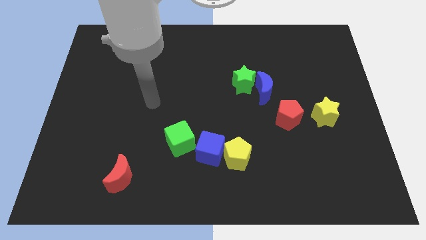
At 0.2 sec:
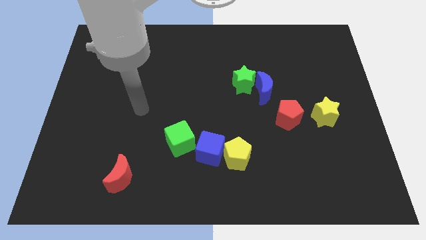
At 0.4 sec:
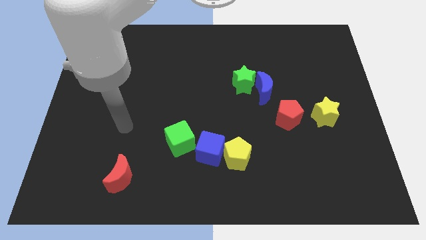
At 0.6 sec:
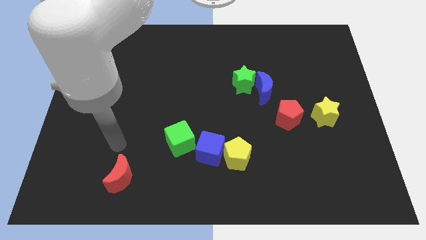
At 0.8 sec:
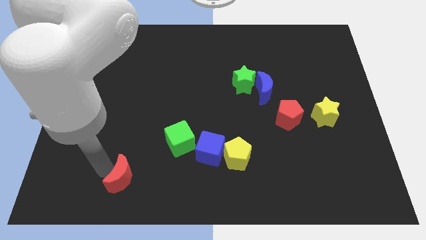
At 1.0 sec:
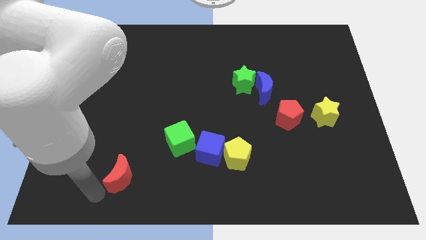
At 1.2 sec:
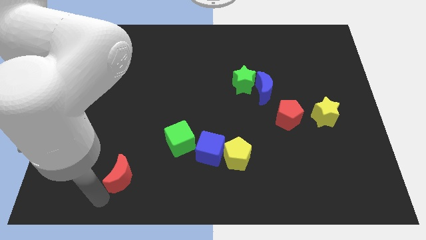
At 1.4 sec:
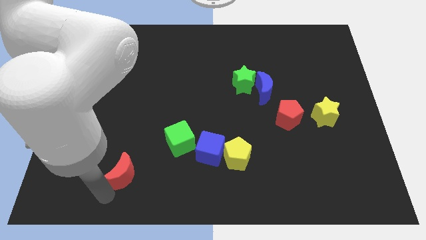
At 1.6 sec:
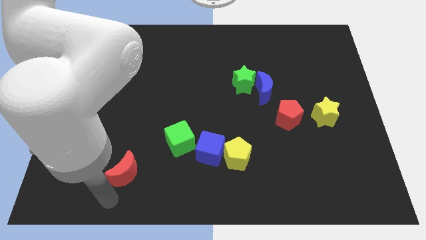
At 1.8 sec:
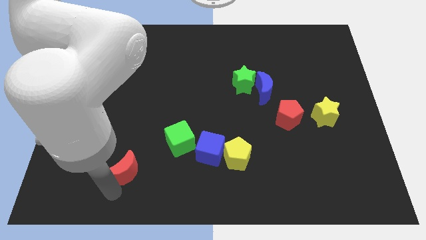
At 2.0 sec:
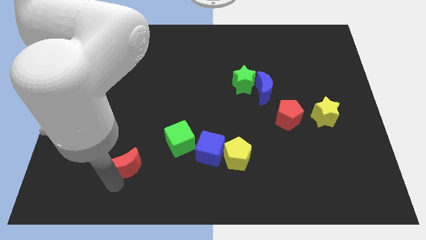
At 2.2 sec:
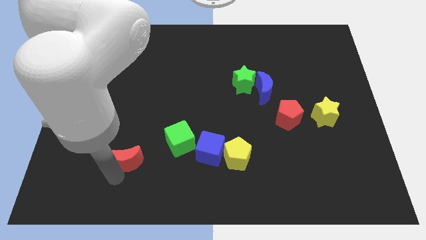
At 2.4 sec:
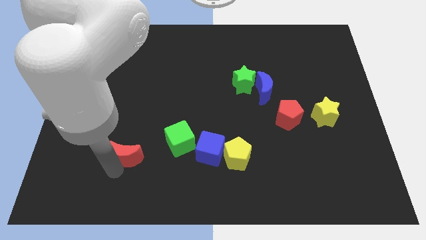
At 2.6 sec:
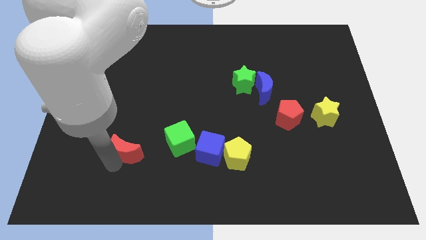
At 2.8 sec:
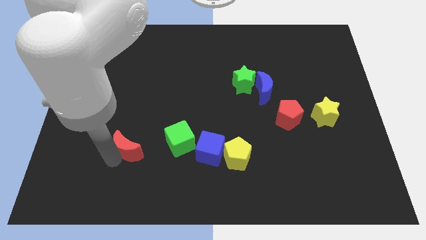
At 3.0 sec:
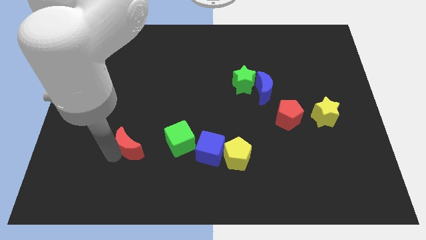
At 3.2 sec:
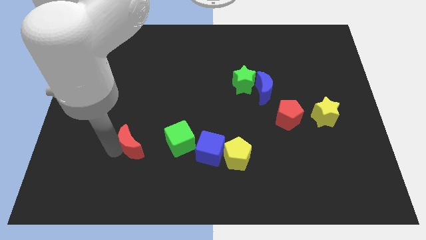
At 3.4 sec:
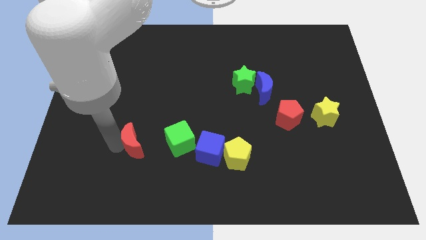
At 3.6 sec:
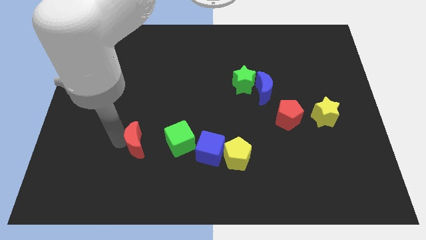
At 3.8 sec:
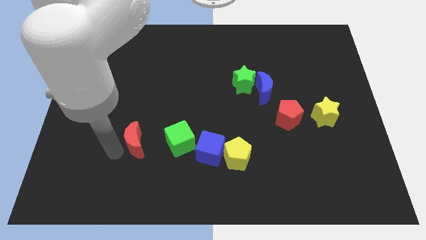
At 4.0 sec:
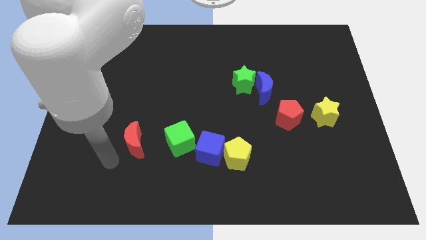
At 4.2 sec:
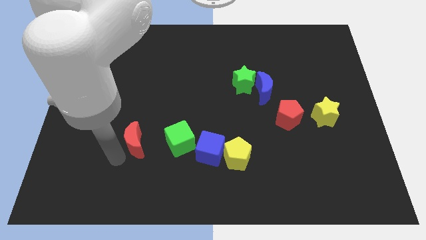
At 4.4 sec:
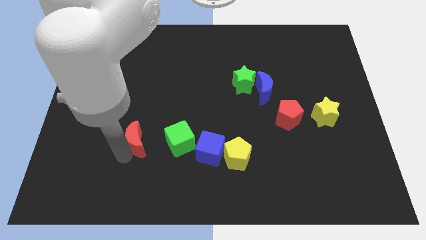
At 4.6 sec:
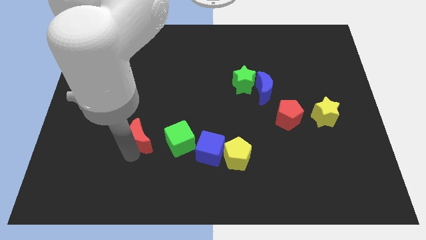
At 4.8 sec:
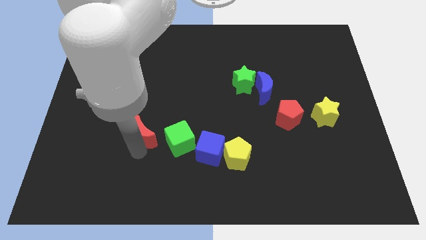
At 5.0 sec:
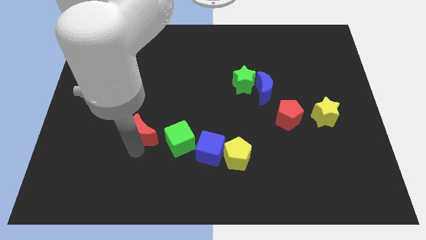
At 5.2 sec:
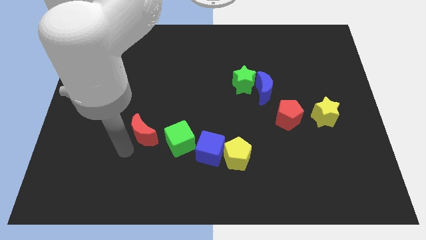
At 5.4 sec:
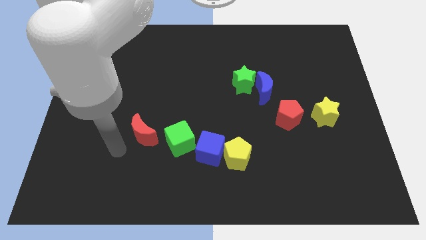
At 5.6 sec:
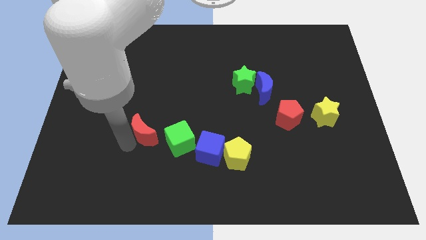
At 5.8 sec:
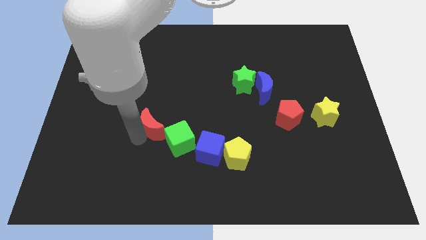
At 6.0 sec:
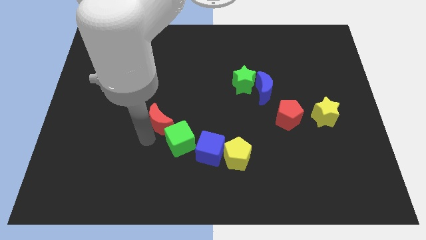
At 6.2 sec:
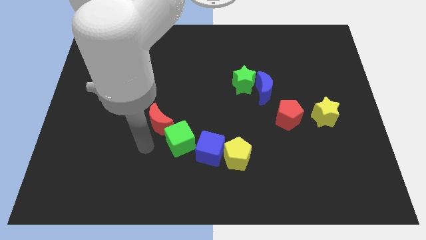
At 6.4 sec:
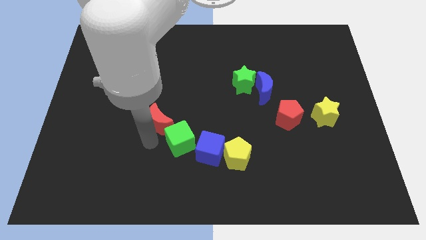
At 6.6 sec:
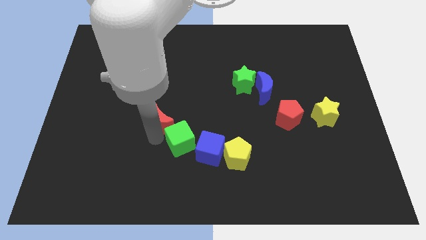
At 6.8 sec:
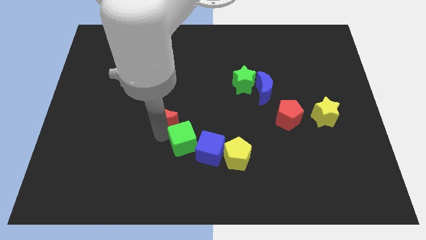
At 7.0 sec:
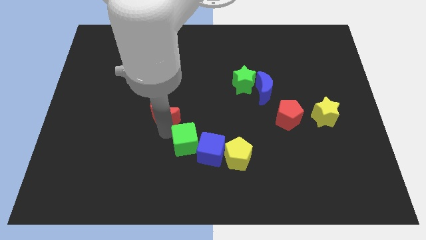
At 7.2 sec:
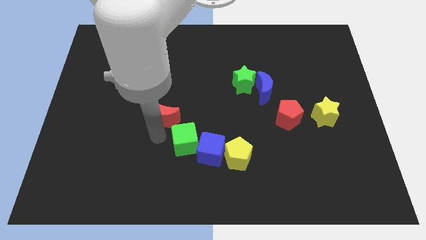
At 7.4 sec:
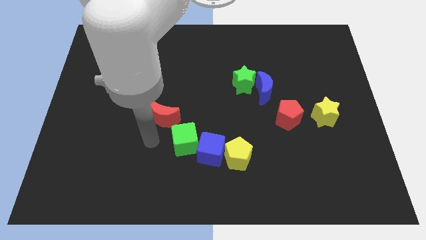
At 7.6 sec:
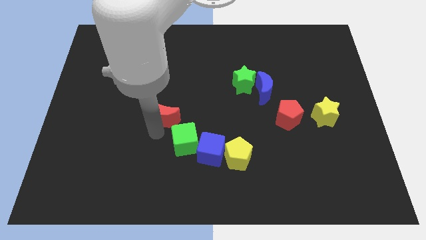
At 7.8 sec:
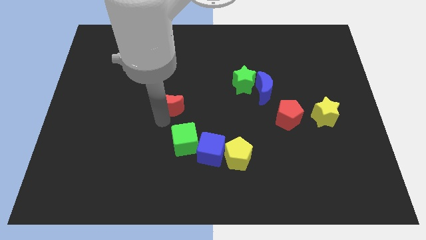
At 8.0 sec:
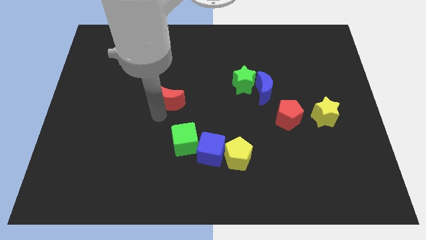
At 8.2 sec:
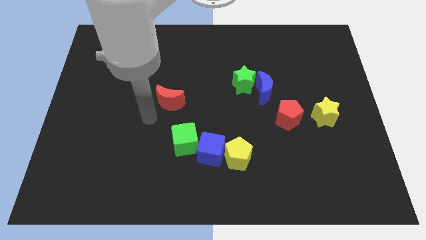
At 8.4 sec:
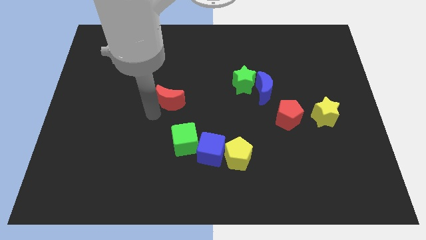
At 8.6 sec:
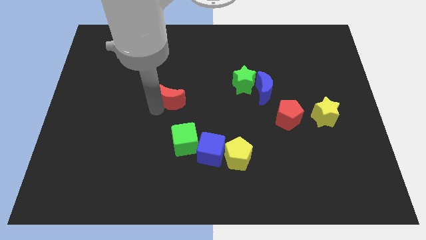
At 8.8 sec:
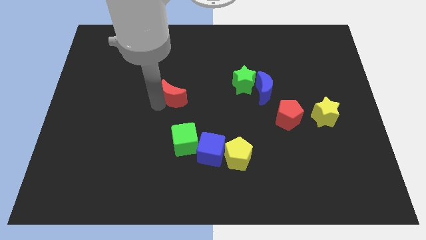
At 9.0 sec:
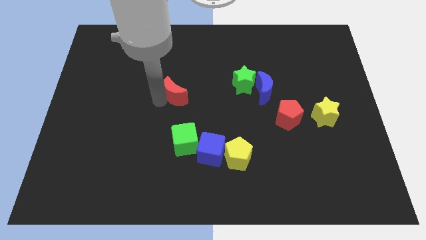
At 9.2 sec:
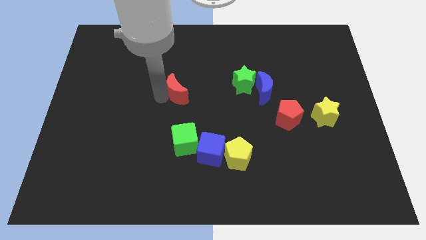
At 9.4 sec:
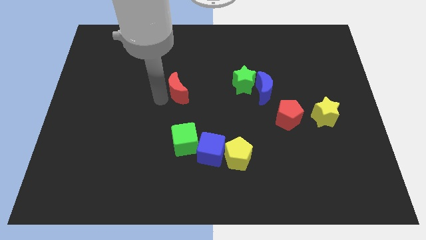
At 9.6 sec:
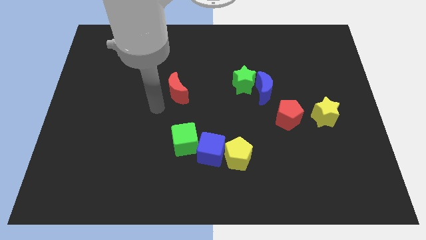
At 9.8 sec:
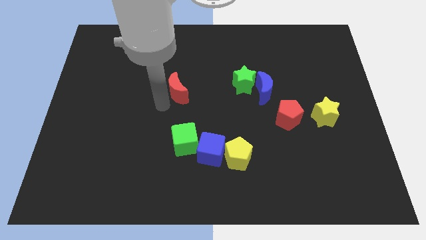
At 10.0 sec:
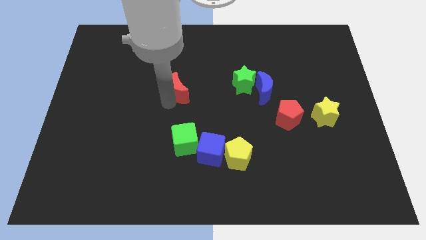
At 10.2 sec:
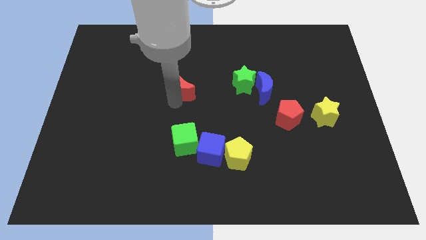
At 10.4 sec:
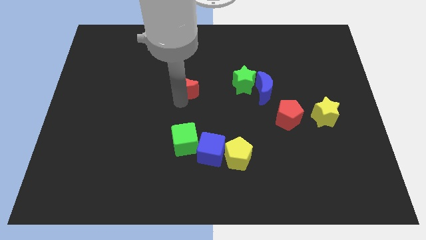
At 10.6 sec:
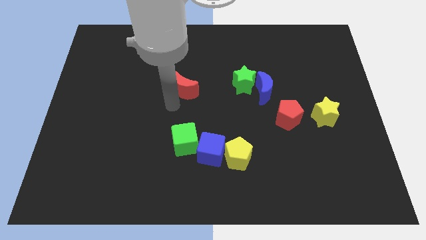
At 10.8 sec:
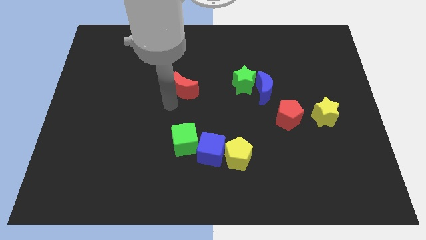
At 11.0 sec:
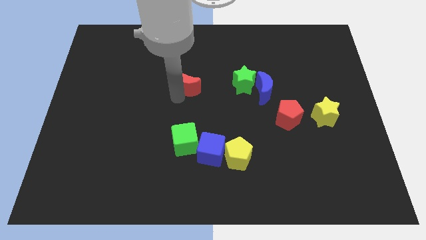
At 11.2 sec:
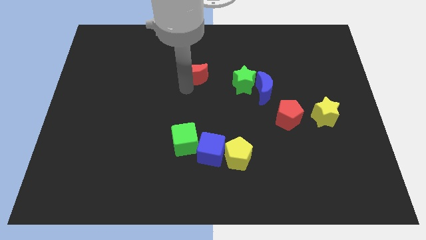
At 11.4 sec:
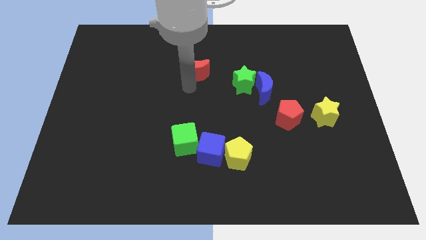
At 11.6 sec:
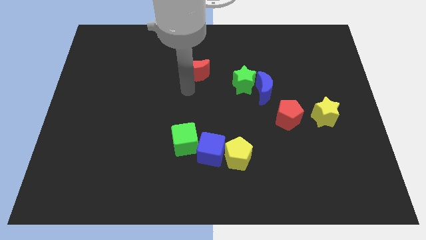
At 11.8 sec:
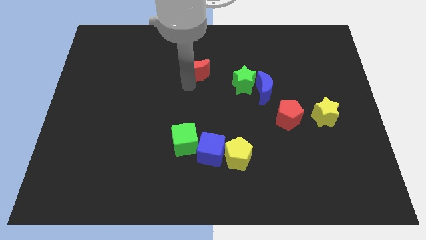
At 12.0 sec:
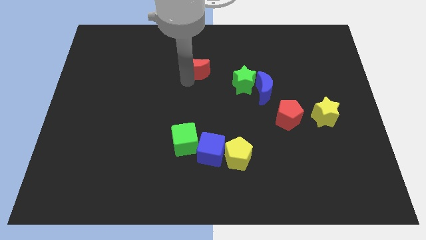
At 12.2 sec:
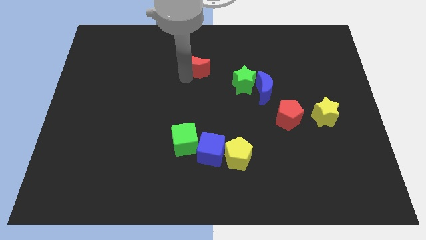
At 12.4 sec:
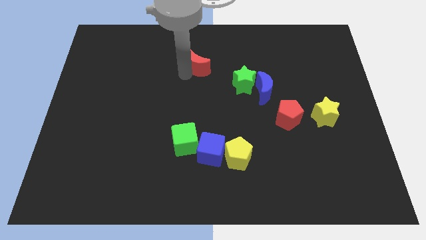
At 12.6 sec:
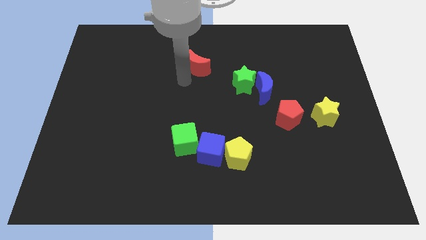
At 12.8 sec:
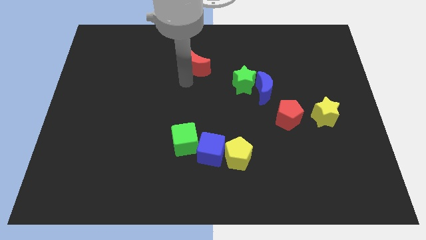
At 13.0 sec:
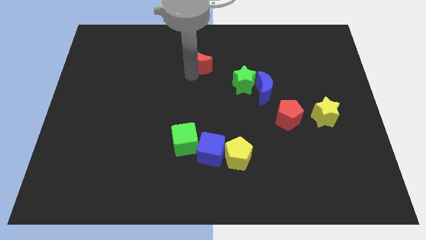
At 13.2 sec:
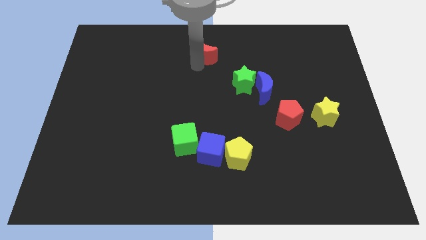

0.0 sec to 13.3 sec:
move the red moon to the top

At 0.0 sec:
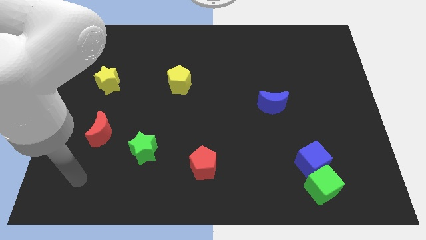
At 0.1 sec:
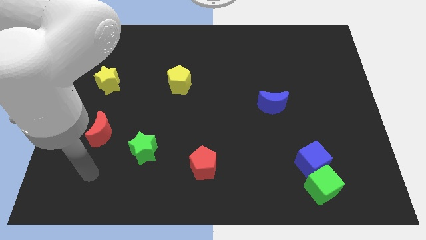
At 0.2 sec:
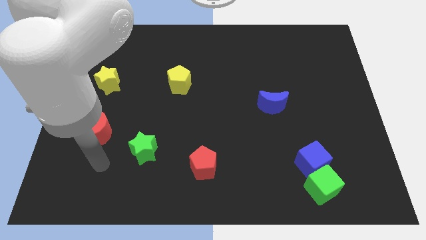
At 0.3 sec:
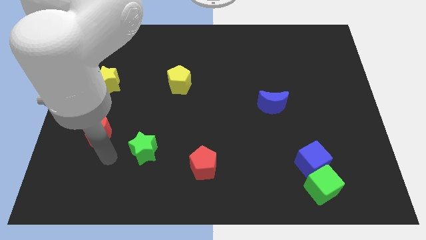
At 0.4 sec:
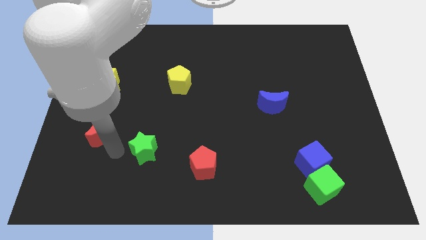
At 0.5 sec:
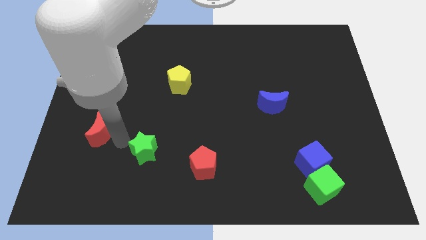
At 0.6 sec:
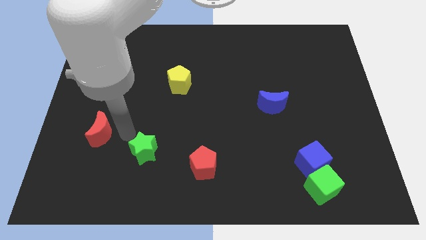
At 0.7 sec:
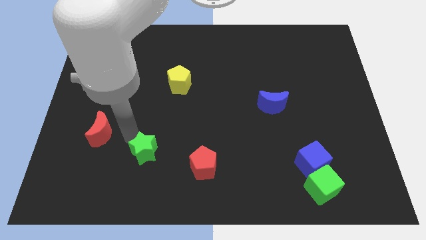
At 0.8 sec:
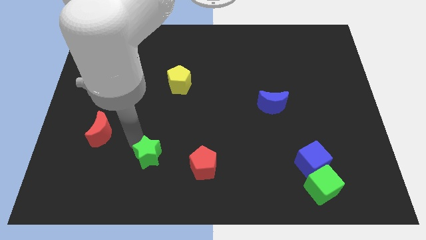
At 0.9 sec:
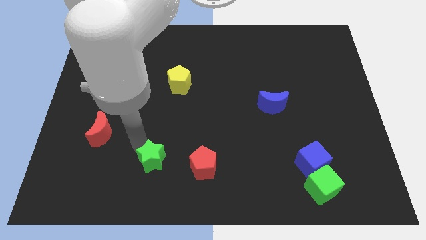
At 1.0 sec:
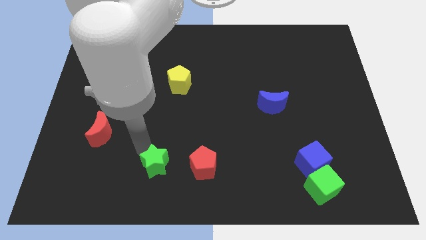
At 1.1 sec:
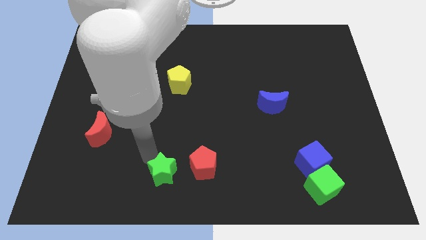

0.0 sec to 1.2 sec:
push the green star to the bottom
